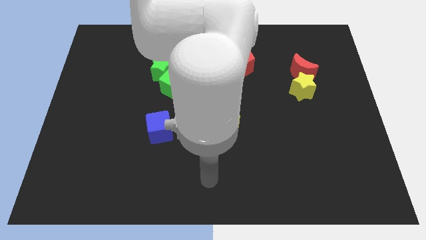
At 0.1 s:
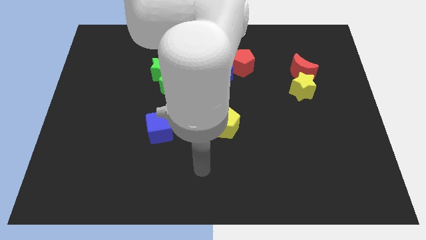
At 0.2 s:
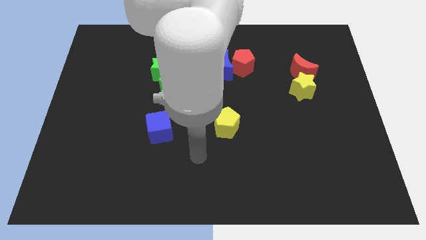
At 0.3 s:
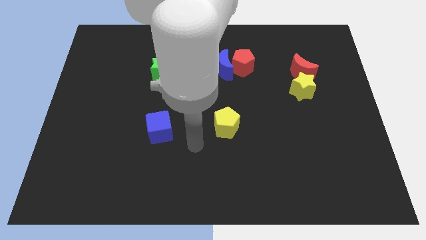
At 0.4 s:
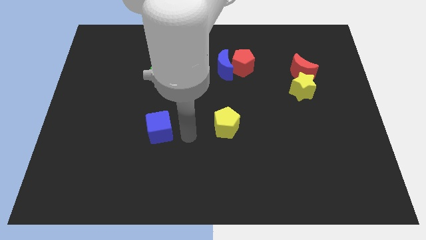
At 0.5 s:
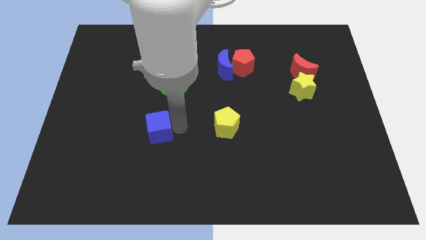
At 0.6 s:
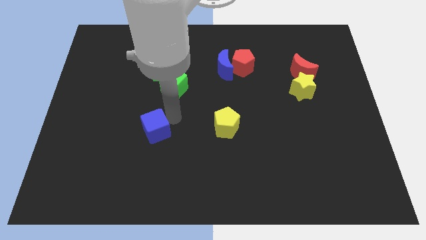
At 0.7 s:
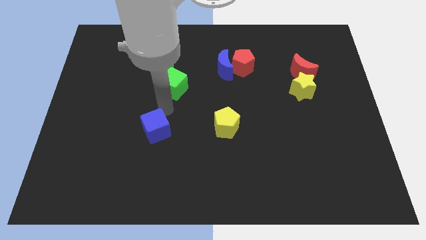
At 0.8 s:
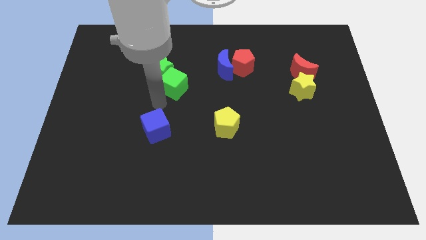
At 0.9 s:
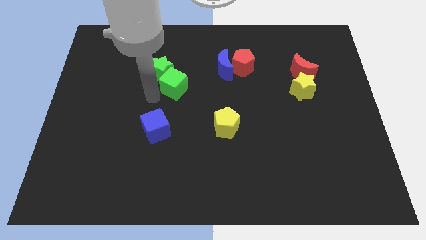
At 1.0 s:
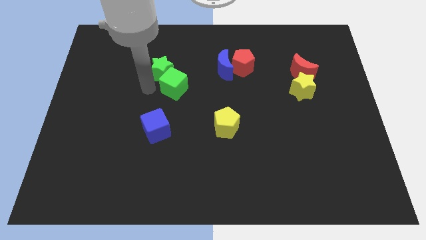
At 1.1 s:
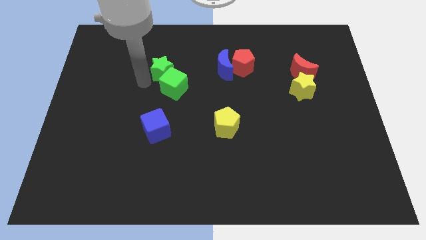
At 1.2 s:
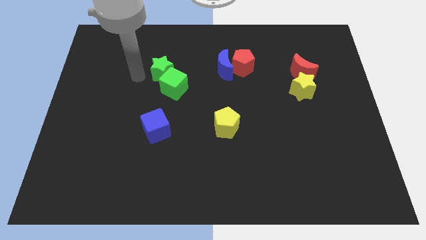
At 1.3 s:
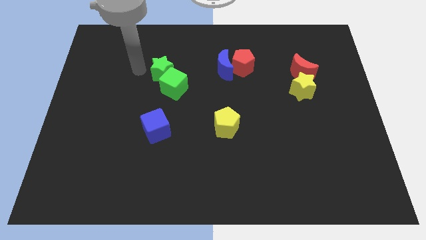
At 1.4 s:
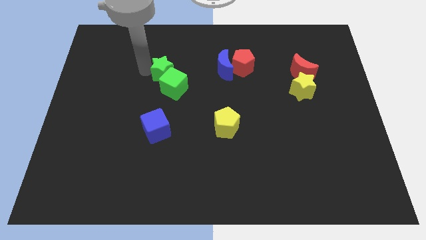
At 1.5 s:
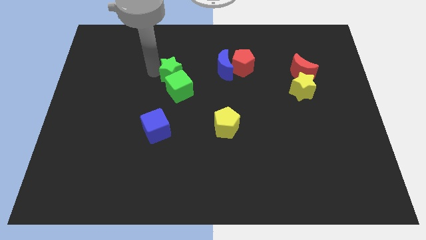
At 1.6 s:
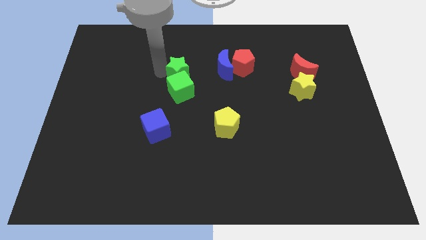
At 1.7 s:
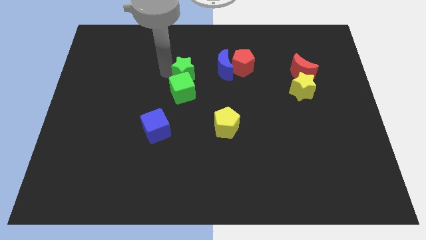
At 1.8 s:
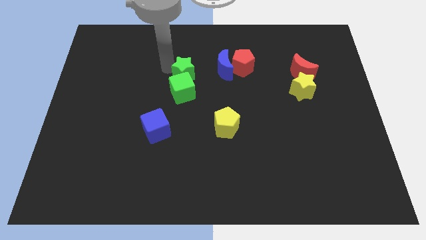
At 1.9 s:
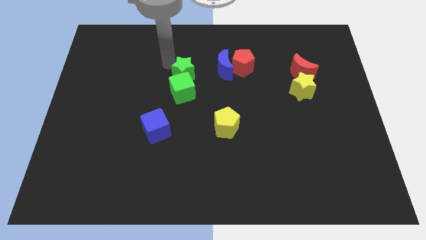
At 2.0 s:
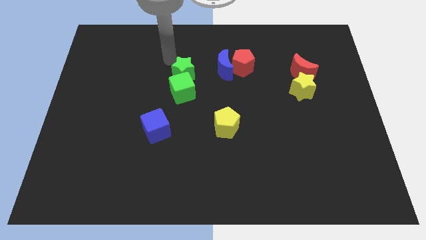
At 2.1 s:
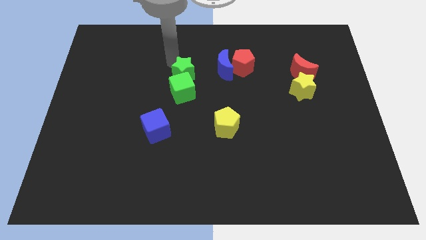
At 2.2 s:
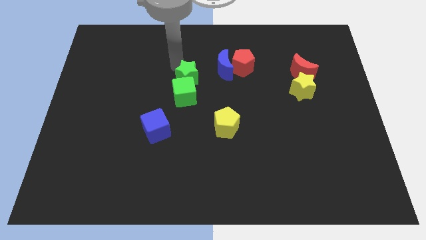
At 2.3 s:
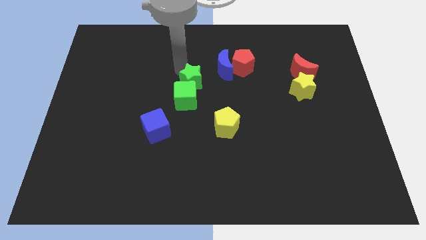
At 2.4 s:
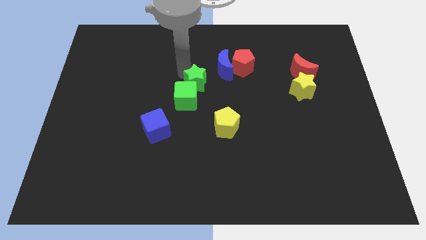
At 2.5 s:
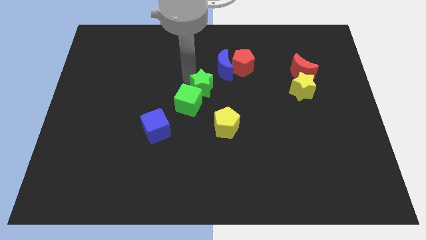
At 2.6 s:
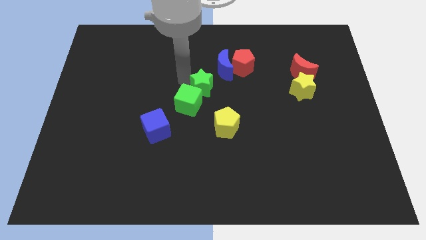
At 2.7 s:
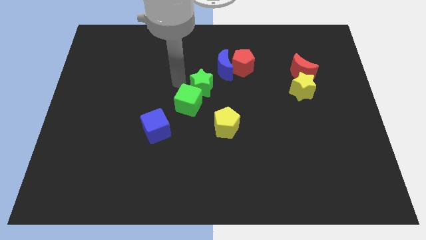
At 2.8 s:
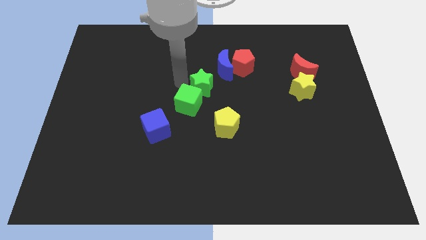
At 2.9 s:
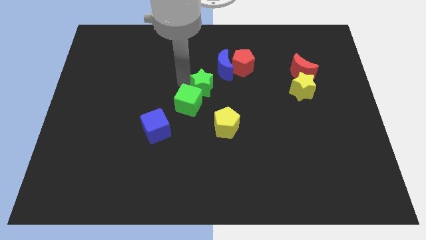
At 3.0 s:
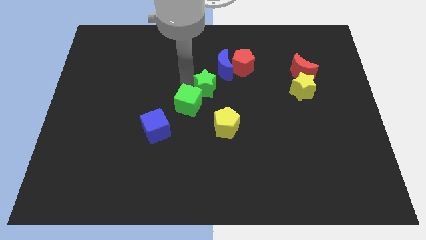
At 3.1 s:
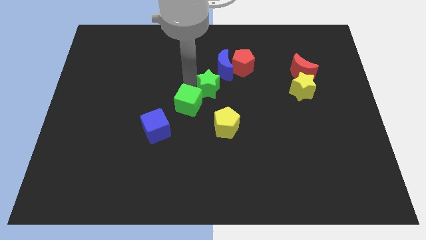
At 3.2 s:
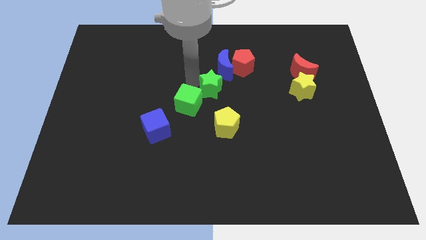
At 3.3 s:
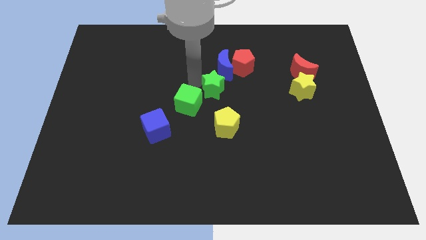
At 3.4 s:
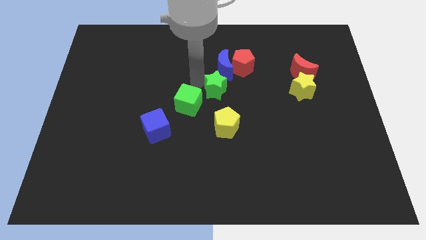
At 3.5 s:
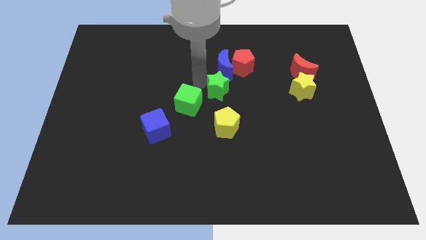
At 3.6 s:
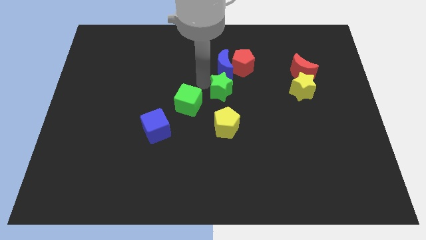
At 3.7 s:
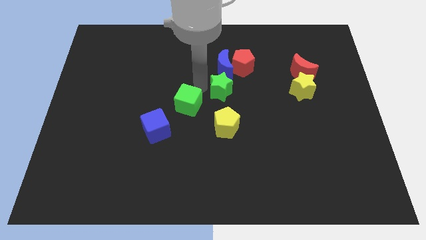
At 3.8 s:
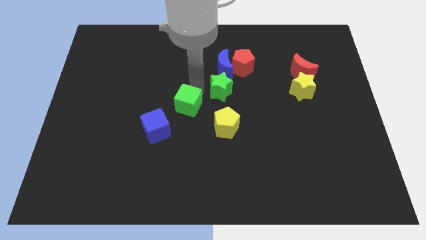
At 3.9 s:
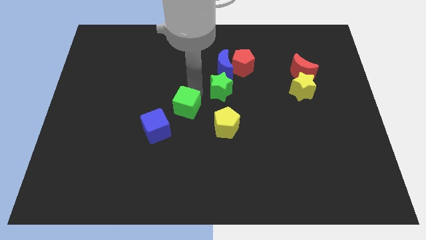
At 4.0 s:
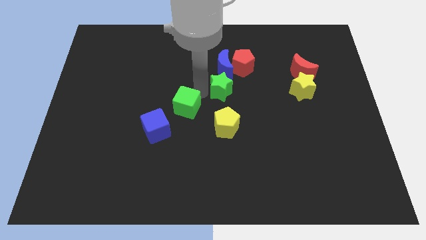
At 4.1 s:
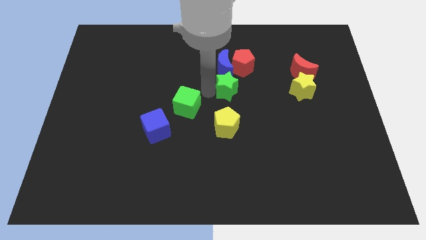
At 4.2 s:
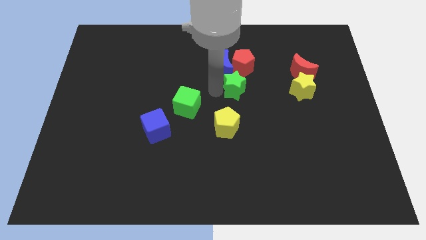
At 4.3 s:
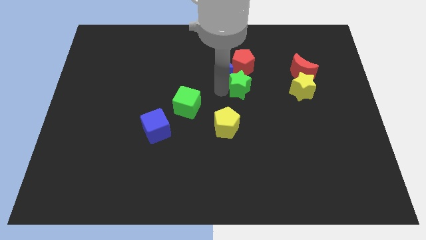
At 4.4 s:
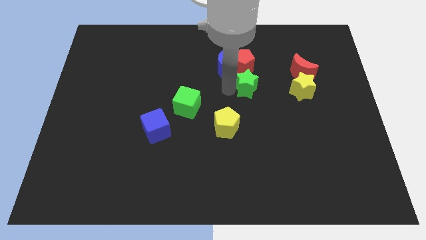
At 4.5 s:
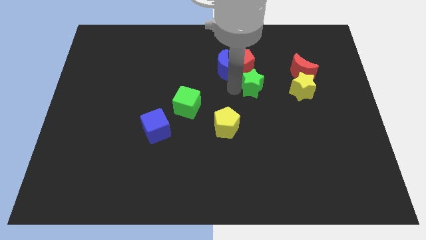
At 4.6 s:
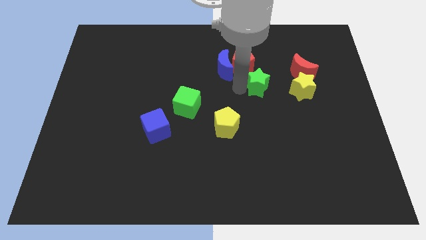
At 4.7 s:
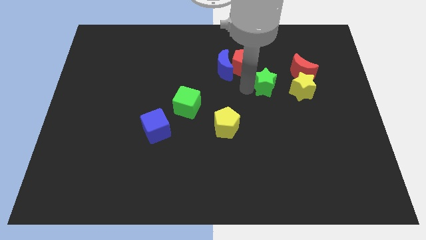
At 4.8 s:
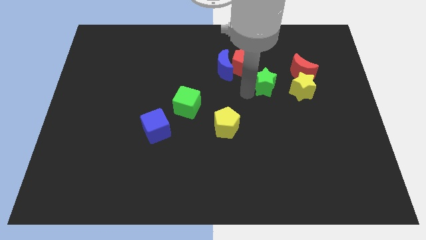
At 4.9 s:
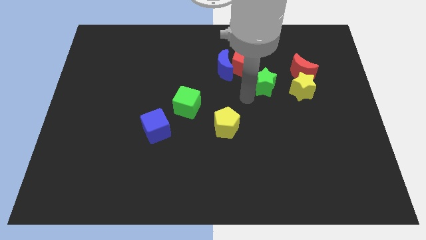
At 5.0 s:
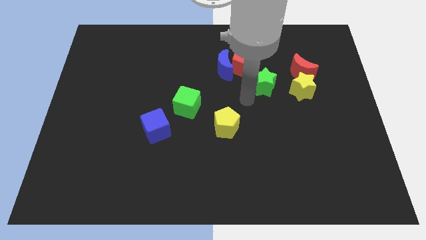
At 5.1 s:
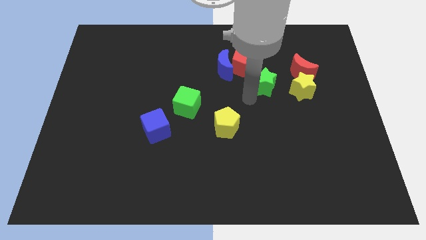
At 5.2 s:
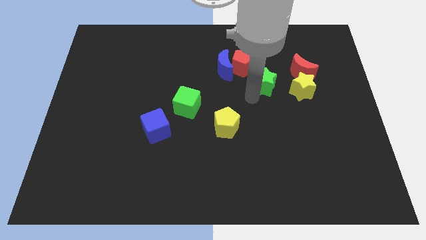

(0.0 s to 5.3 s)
put the green star diagonally up and to the left of the yellow star

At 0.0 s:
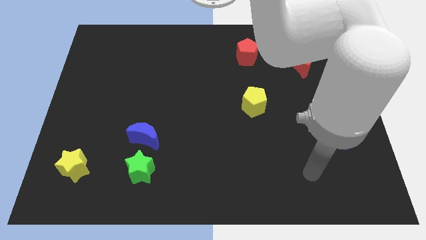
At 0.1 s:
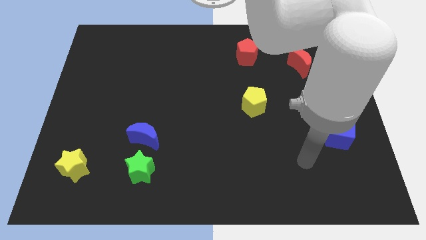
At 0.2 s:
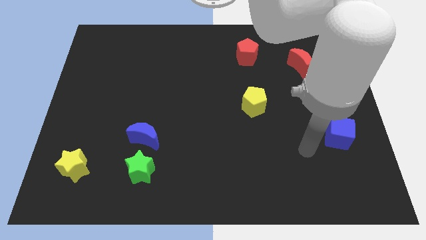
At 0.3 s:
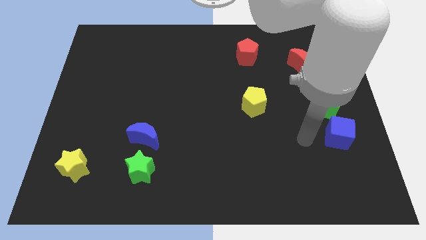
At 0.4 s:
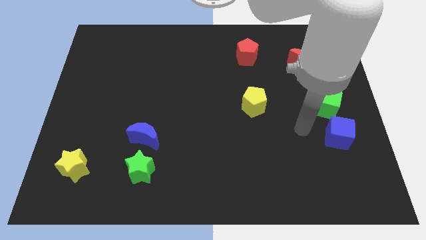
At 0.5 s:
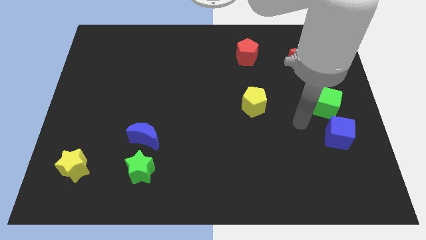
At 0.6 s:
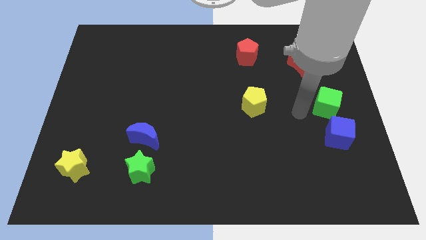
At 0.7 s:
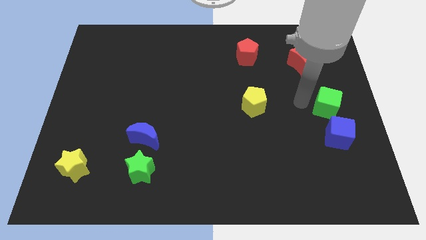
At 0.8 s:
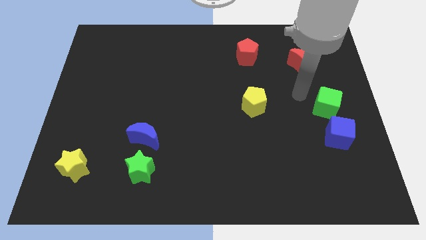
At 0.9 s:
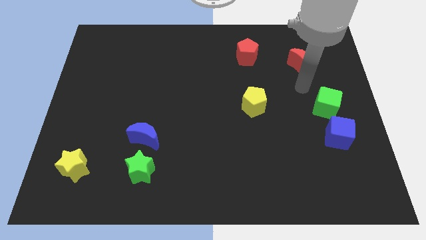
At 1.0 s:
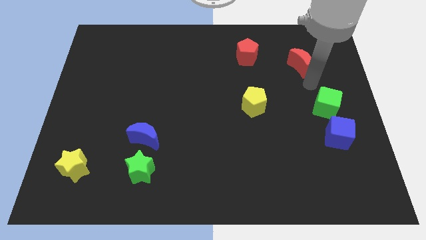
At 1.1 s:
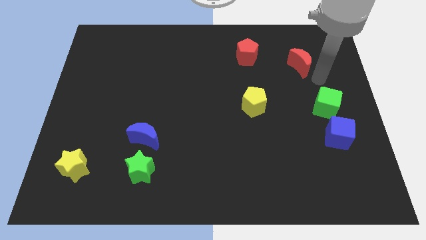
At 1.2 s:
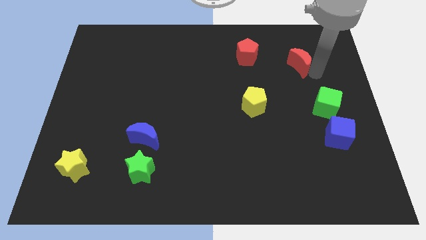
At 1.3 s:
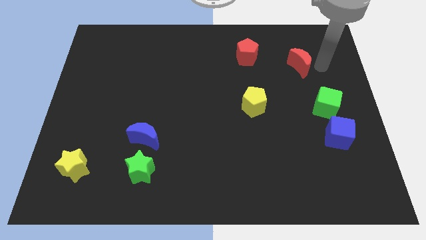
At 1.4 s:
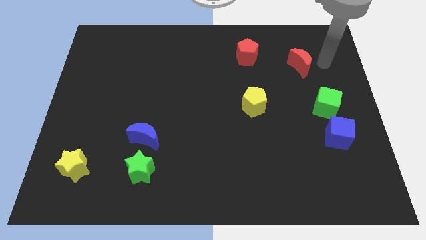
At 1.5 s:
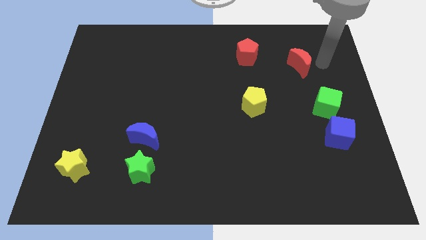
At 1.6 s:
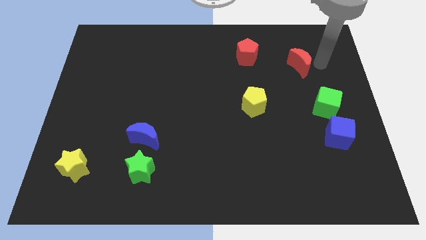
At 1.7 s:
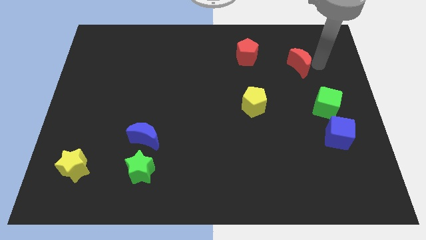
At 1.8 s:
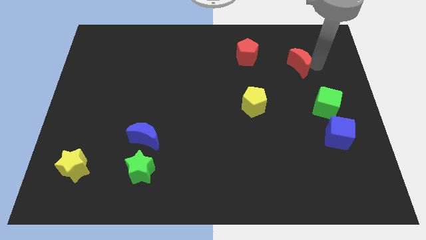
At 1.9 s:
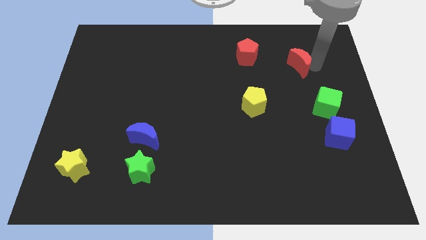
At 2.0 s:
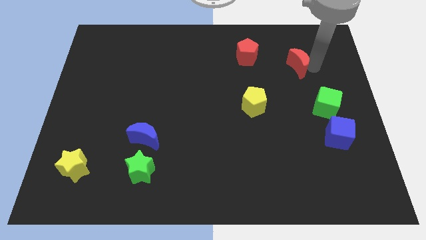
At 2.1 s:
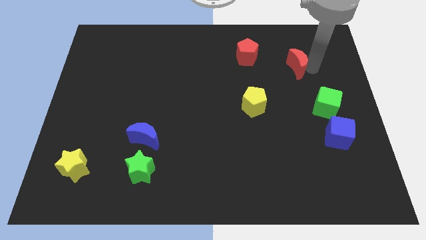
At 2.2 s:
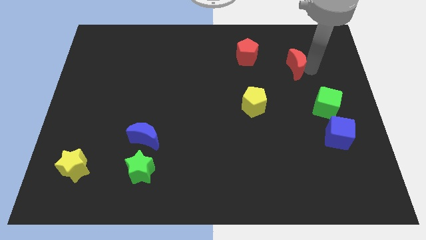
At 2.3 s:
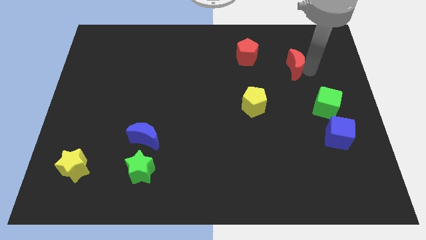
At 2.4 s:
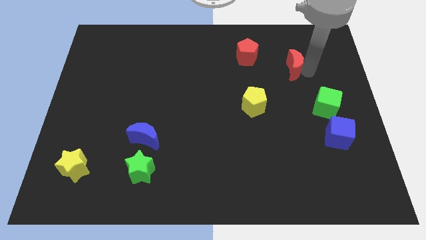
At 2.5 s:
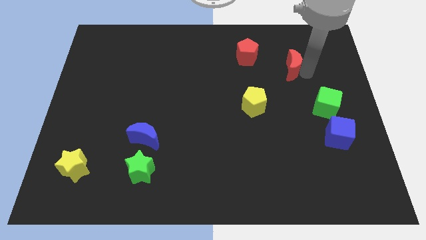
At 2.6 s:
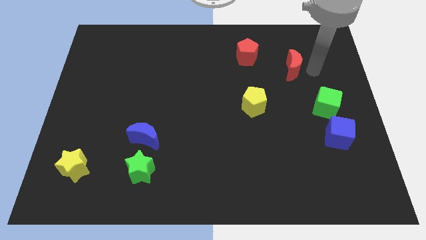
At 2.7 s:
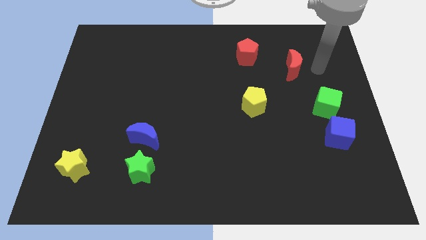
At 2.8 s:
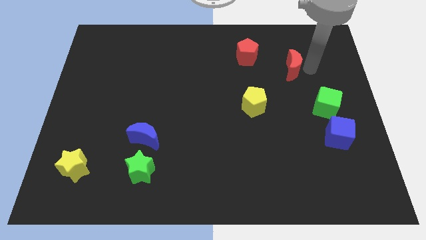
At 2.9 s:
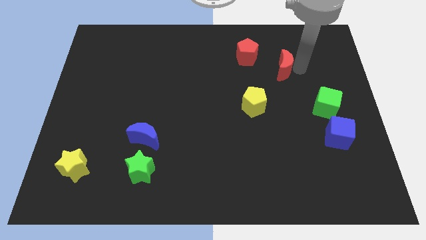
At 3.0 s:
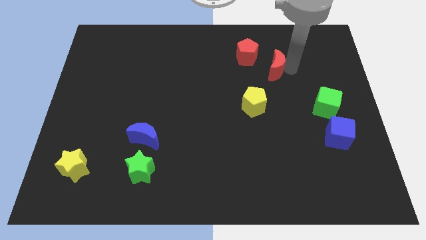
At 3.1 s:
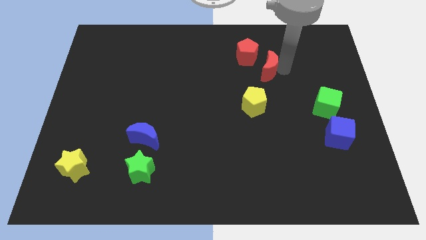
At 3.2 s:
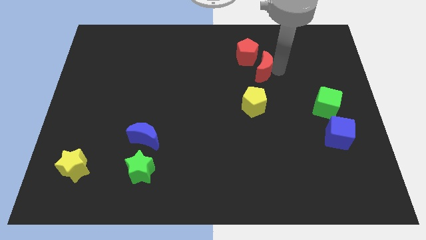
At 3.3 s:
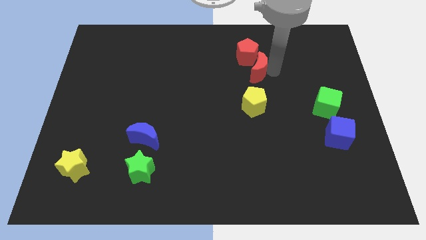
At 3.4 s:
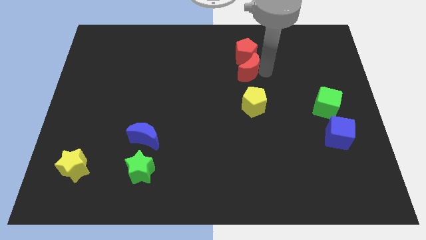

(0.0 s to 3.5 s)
push the red moon to the bottom left of the red pentagon
